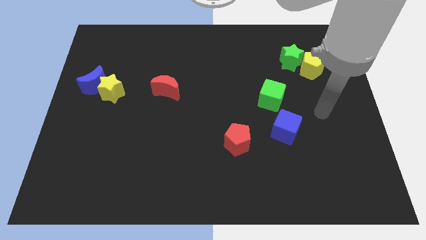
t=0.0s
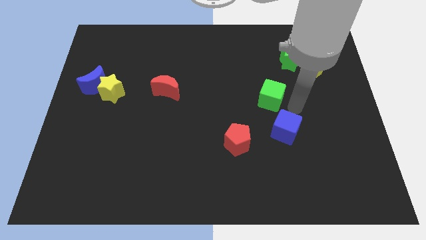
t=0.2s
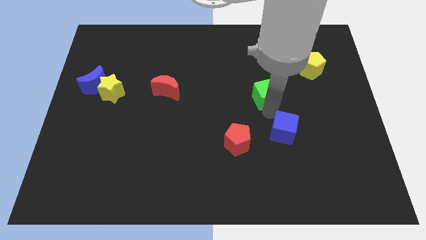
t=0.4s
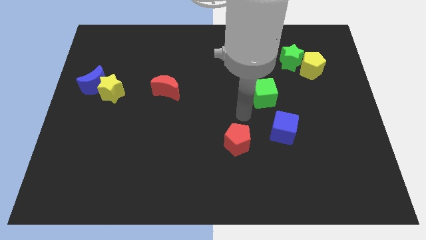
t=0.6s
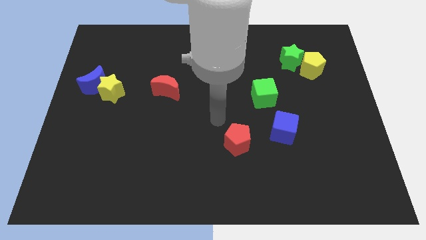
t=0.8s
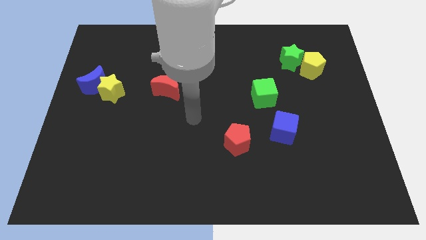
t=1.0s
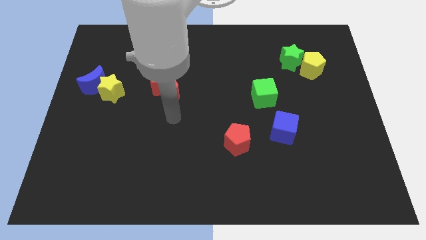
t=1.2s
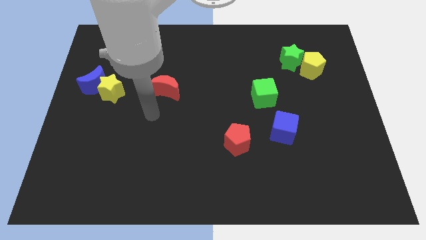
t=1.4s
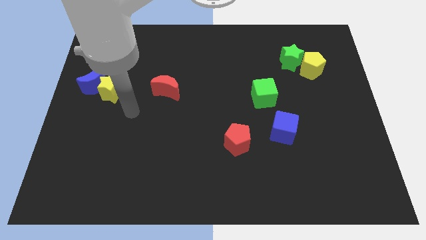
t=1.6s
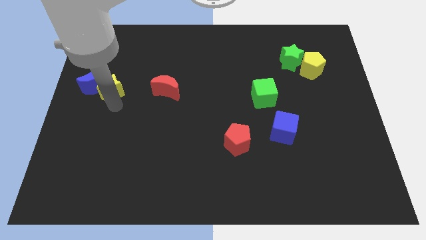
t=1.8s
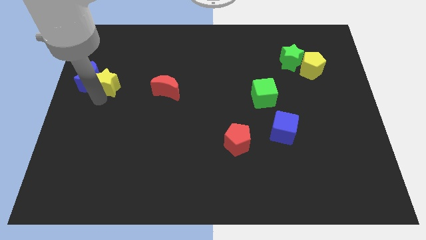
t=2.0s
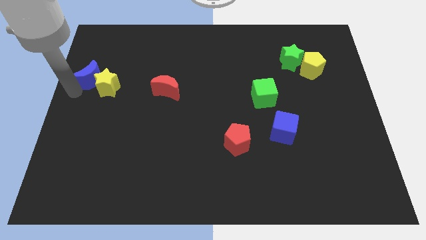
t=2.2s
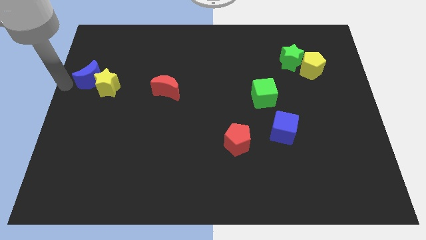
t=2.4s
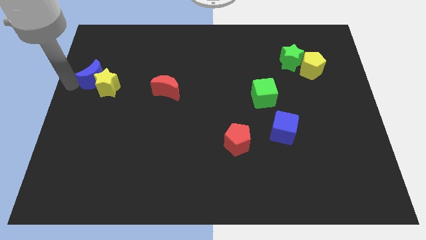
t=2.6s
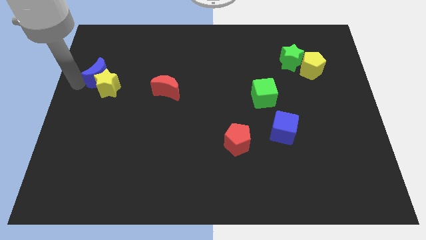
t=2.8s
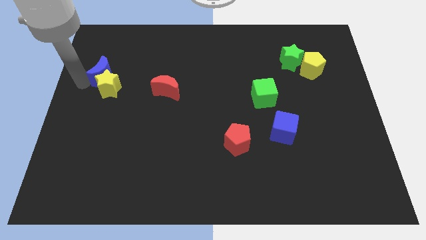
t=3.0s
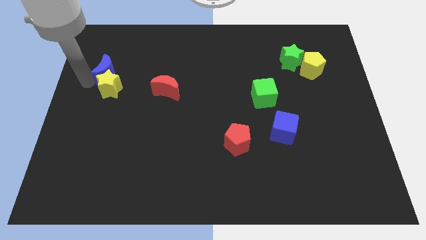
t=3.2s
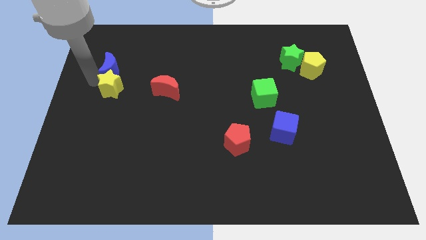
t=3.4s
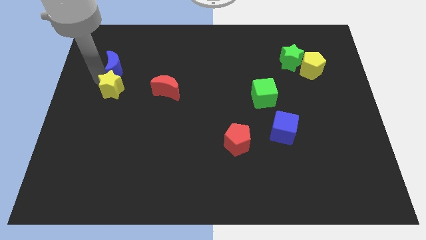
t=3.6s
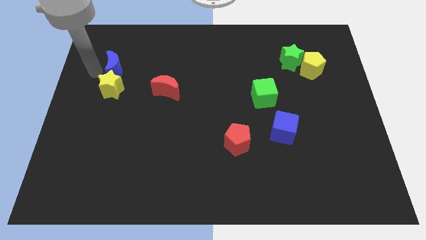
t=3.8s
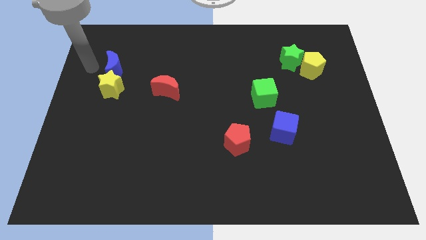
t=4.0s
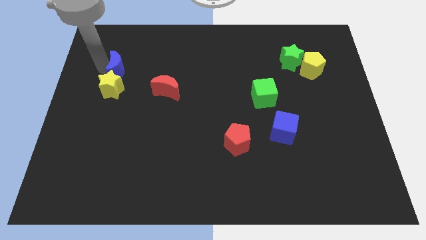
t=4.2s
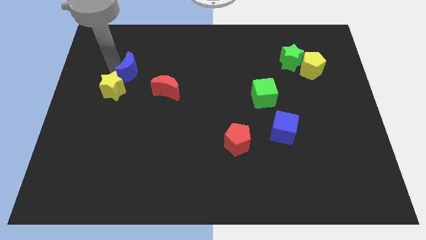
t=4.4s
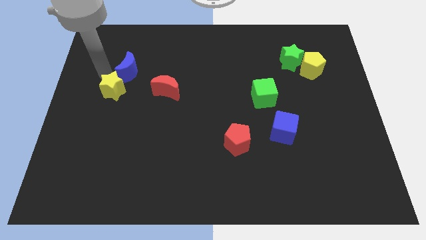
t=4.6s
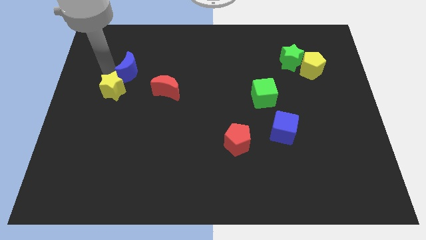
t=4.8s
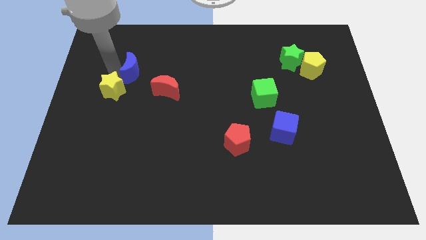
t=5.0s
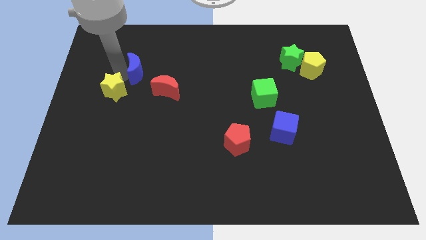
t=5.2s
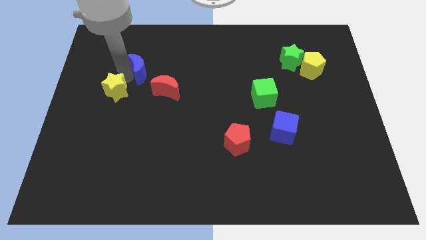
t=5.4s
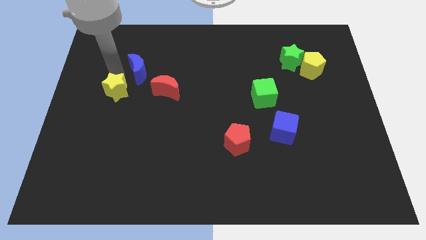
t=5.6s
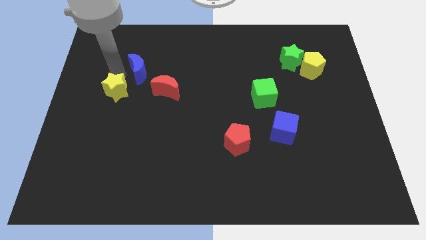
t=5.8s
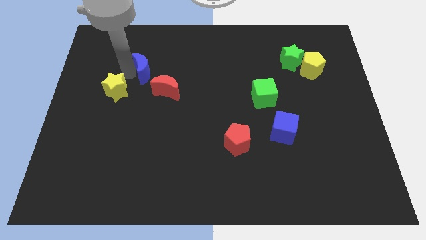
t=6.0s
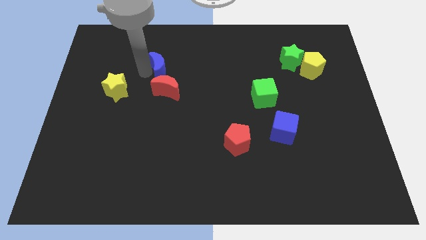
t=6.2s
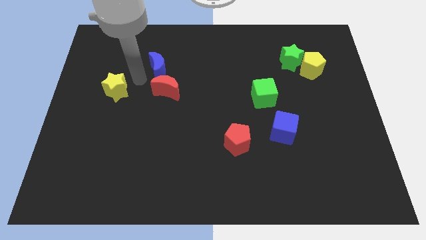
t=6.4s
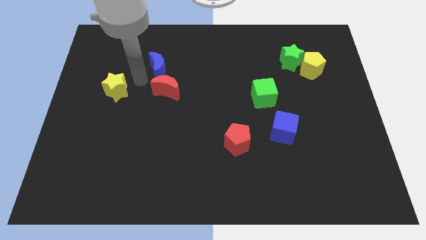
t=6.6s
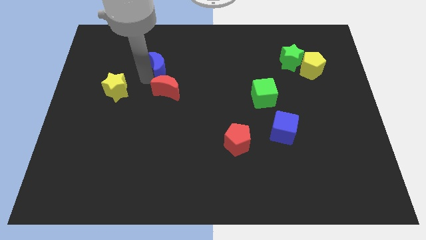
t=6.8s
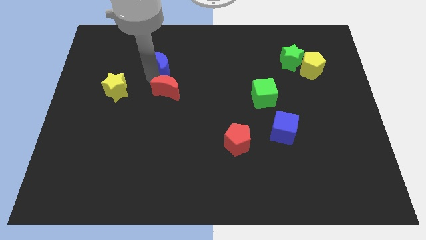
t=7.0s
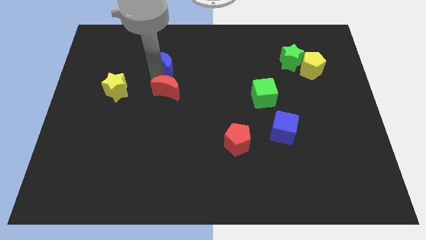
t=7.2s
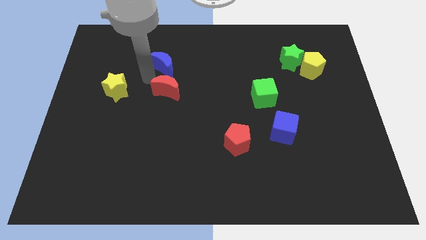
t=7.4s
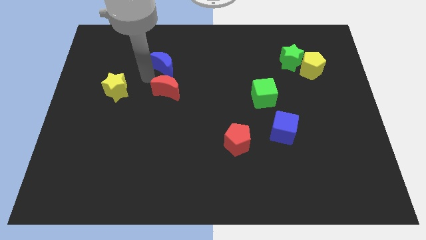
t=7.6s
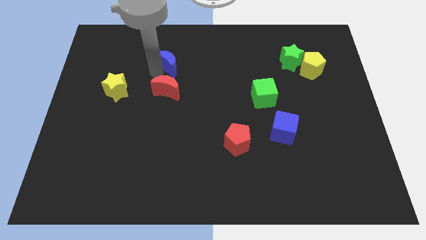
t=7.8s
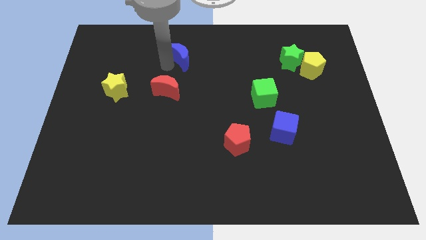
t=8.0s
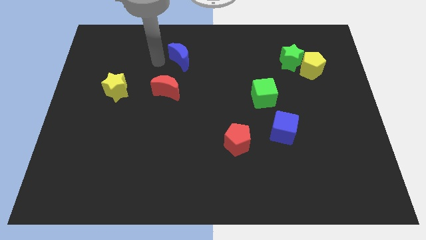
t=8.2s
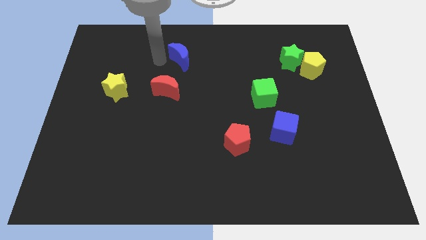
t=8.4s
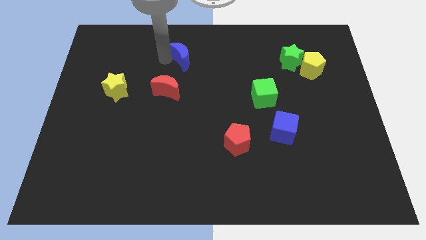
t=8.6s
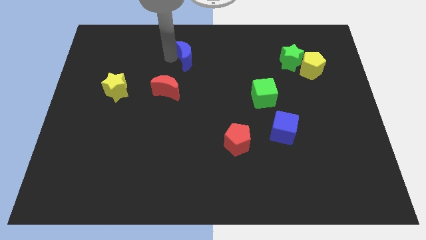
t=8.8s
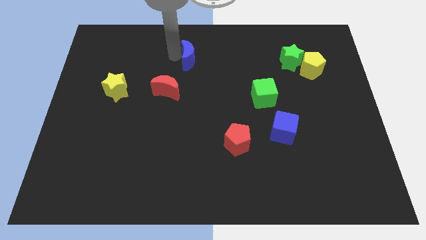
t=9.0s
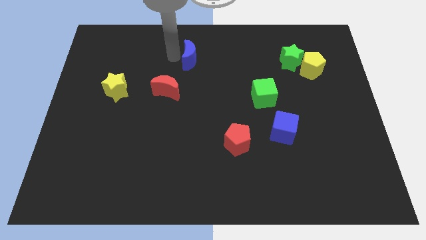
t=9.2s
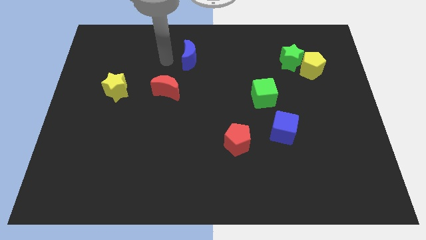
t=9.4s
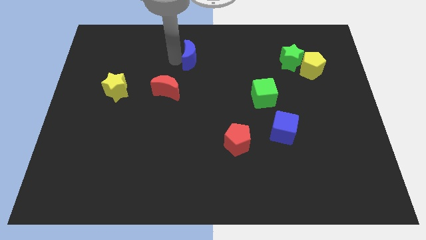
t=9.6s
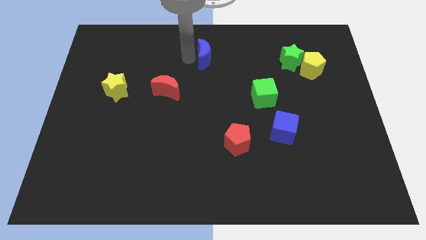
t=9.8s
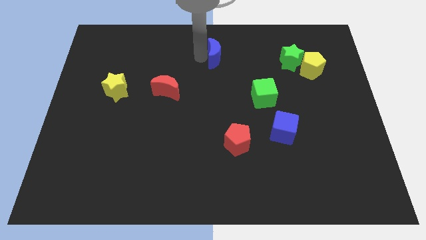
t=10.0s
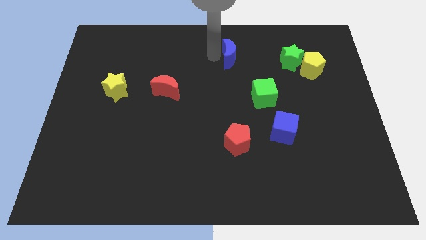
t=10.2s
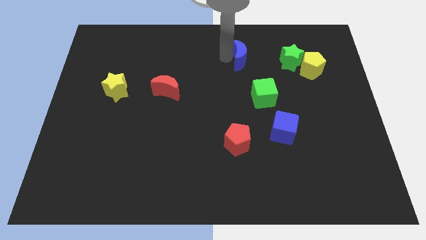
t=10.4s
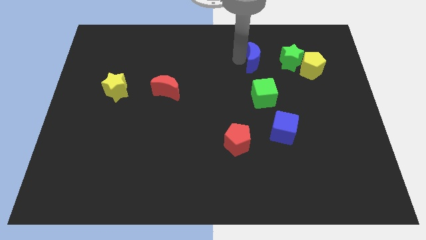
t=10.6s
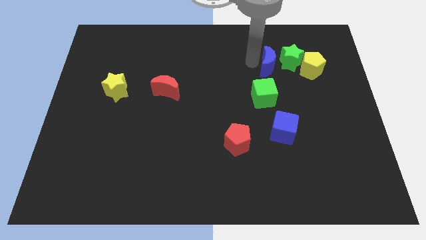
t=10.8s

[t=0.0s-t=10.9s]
slide the blue moon towards the green star

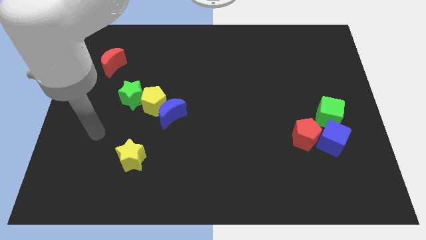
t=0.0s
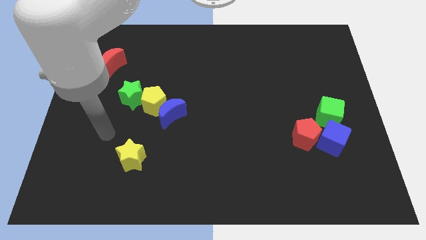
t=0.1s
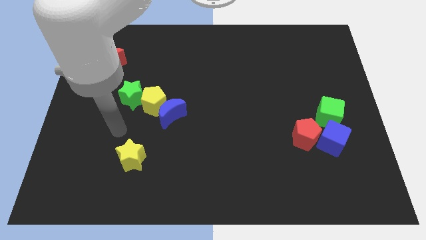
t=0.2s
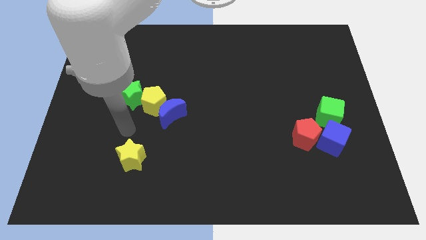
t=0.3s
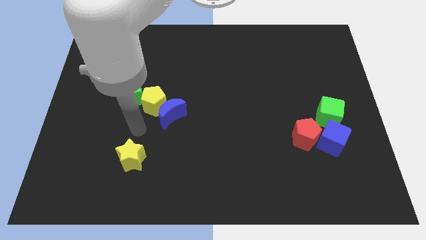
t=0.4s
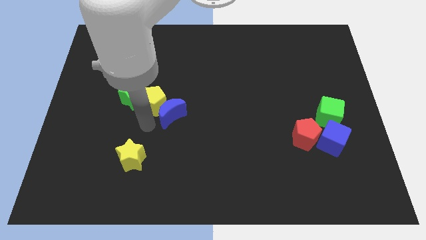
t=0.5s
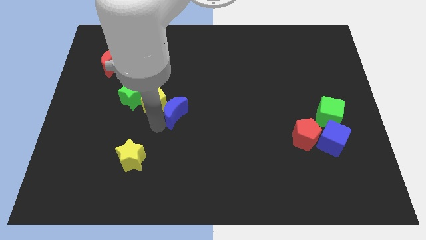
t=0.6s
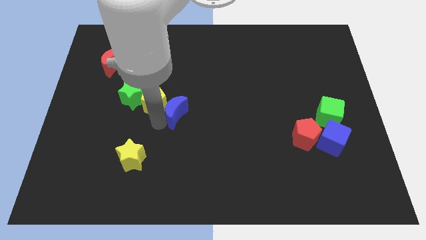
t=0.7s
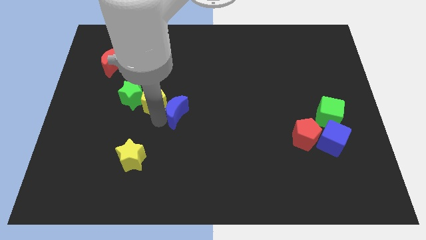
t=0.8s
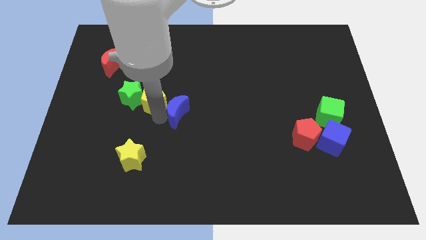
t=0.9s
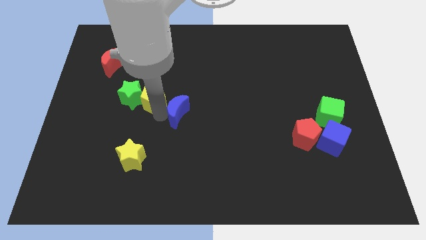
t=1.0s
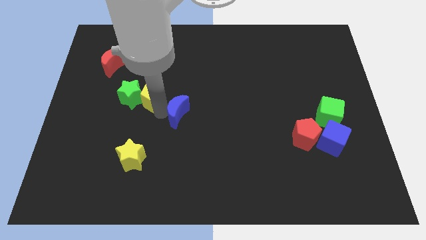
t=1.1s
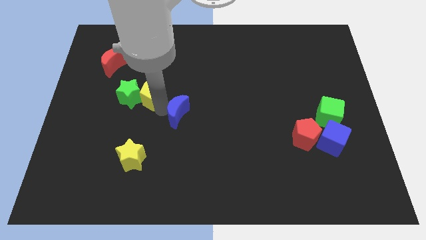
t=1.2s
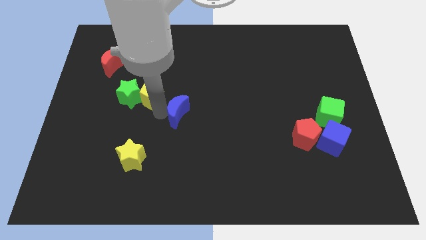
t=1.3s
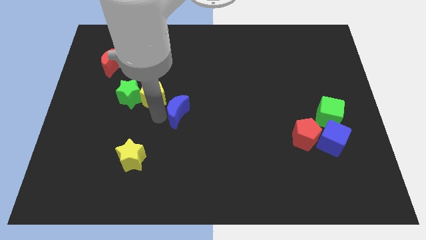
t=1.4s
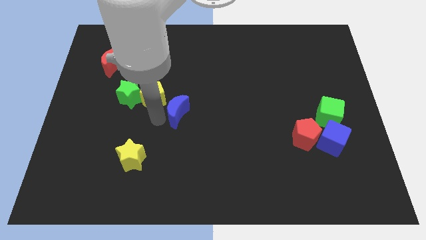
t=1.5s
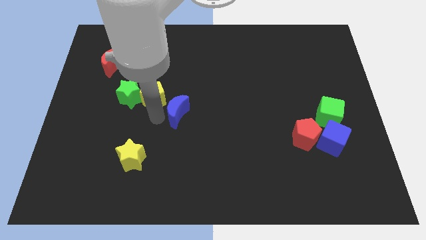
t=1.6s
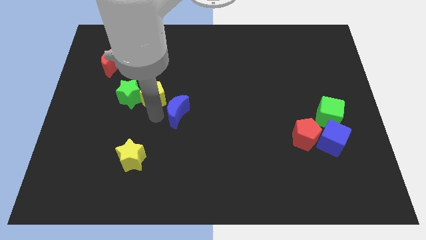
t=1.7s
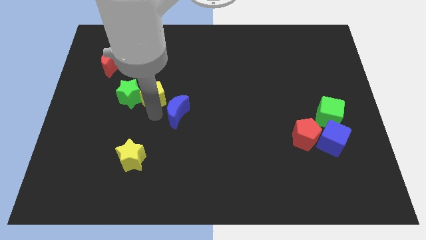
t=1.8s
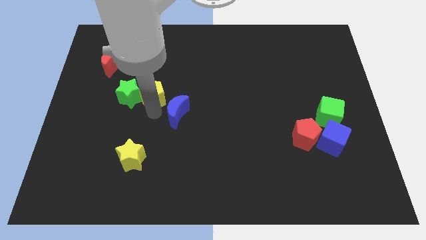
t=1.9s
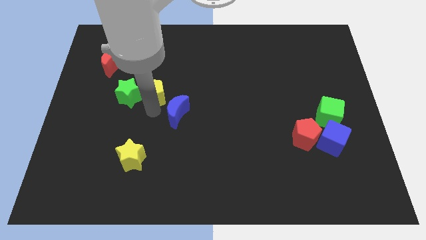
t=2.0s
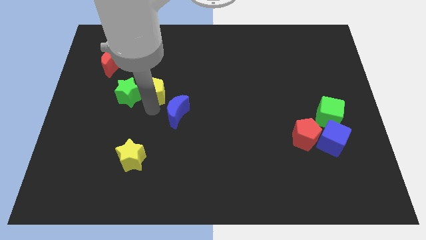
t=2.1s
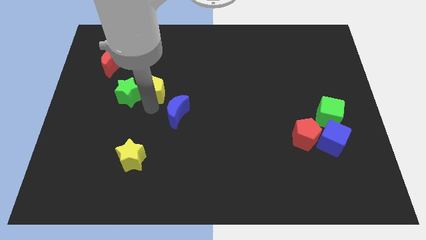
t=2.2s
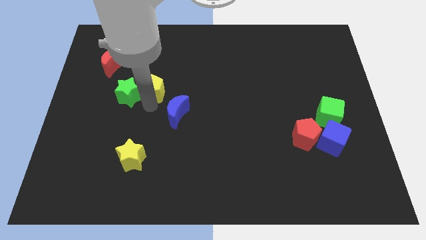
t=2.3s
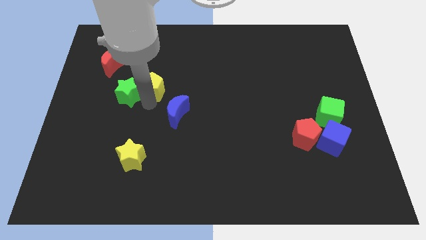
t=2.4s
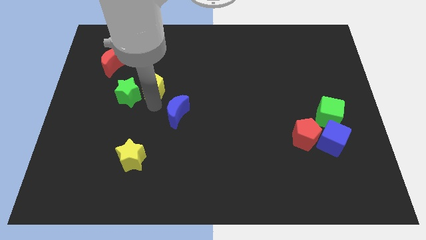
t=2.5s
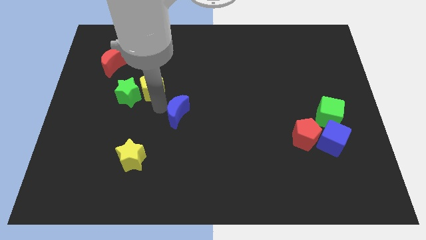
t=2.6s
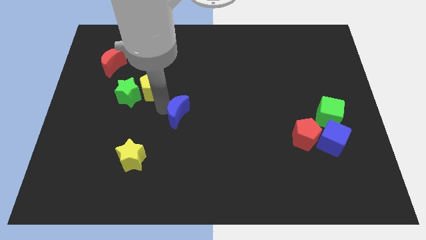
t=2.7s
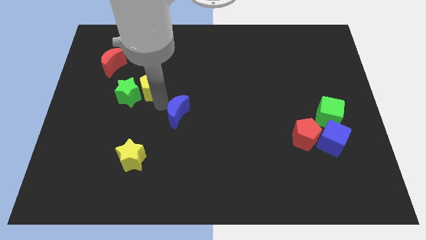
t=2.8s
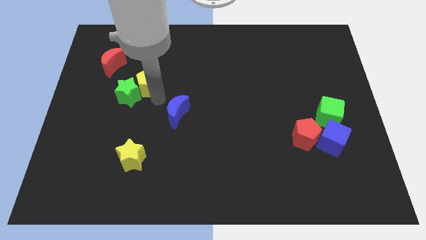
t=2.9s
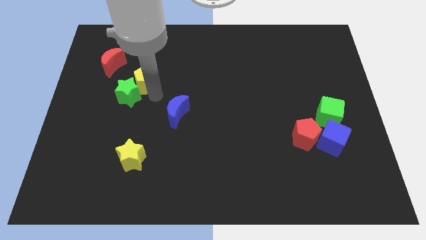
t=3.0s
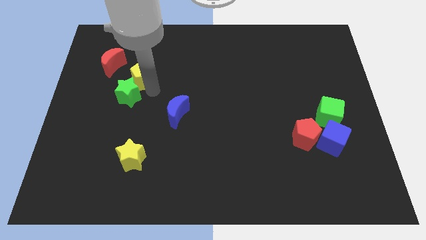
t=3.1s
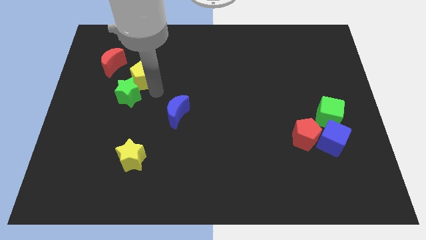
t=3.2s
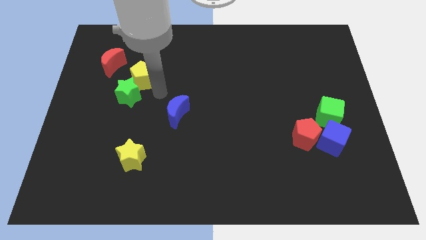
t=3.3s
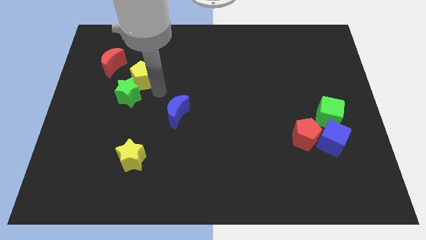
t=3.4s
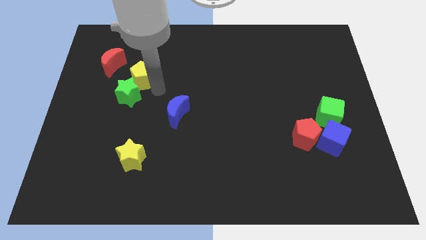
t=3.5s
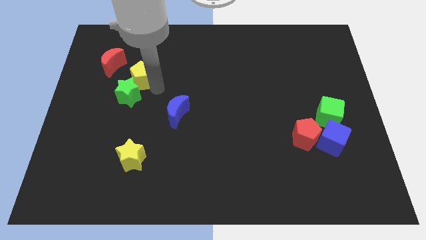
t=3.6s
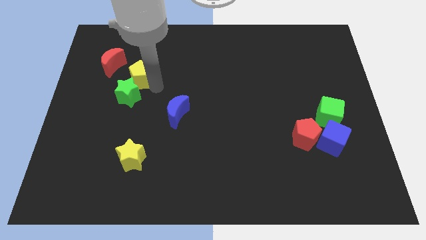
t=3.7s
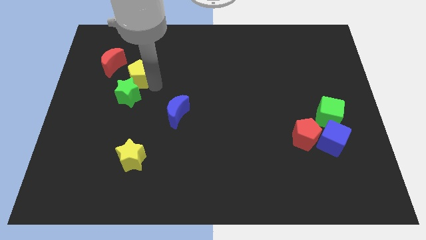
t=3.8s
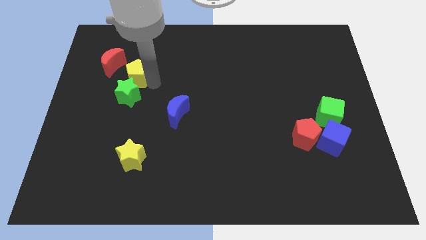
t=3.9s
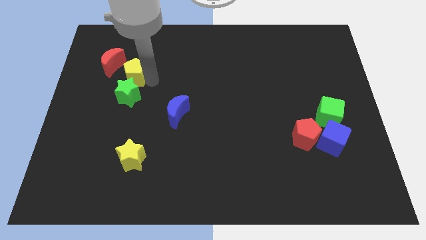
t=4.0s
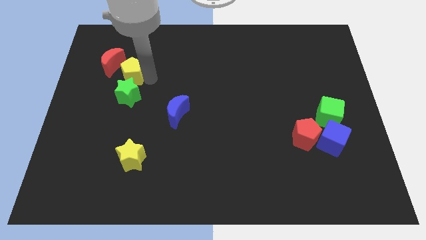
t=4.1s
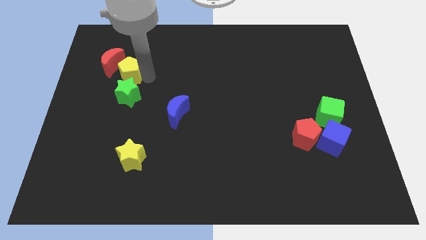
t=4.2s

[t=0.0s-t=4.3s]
move the yellow pentagon close to the red moon
